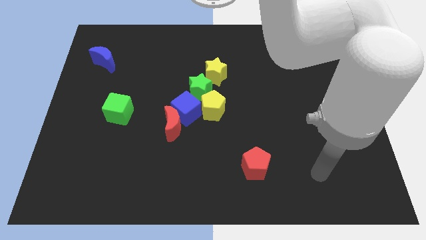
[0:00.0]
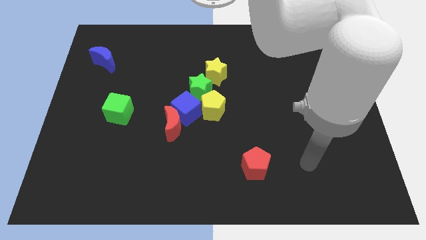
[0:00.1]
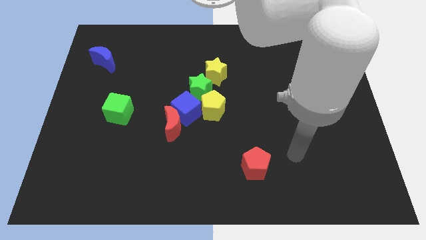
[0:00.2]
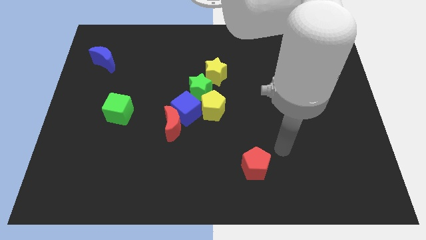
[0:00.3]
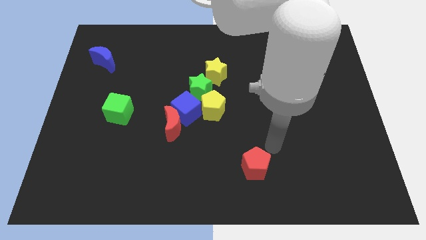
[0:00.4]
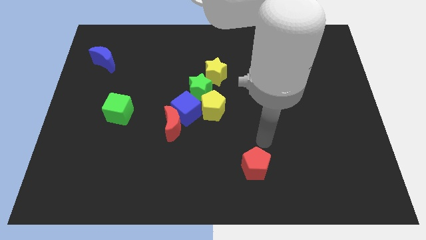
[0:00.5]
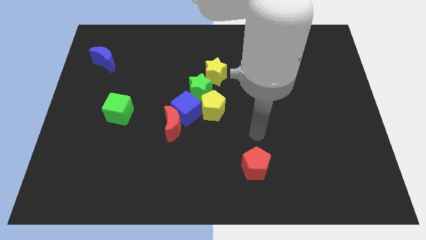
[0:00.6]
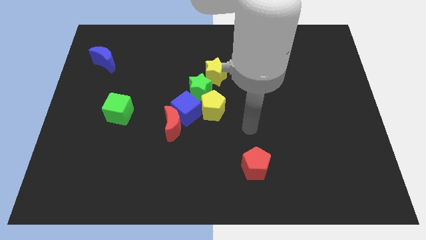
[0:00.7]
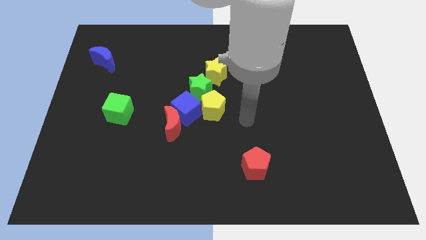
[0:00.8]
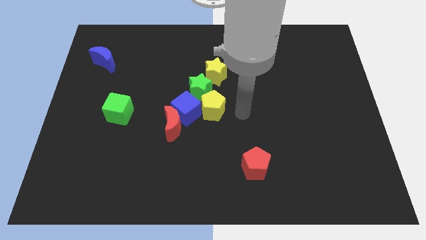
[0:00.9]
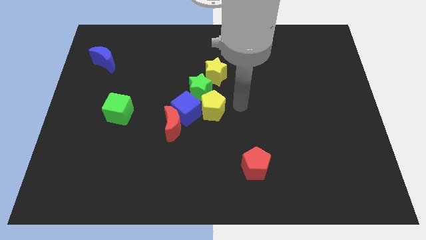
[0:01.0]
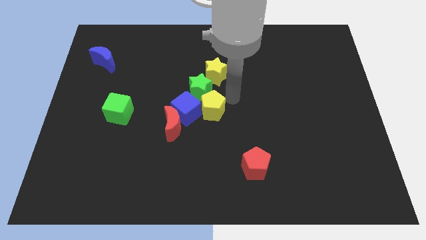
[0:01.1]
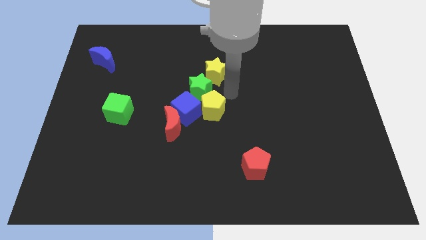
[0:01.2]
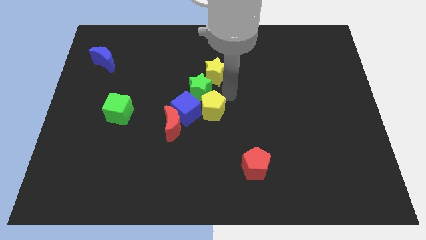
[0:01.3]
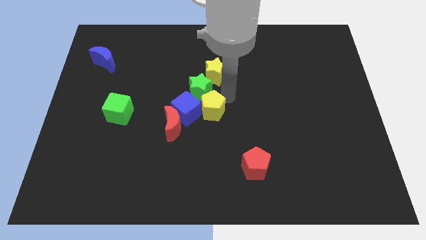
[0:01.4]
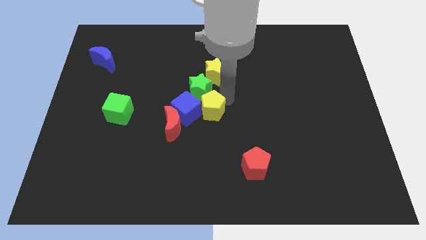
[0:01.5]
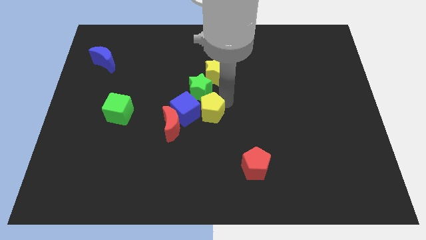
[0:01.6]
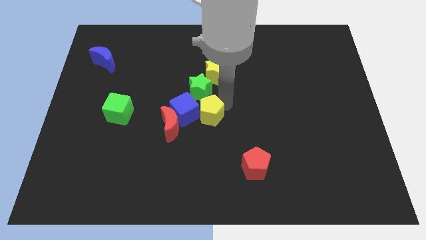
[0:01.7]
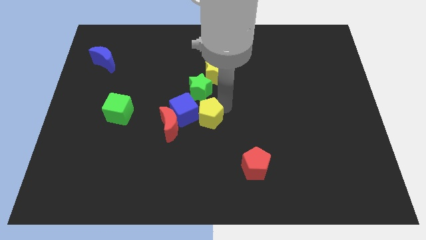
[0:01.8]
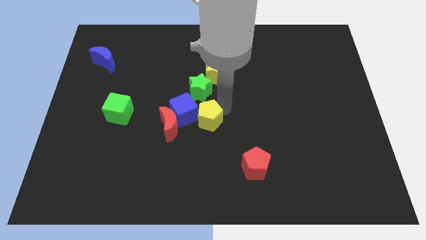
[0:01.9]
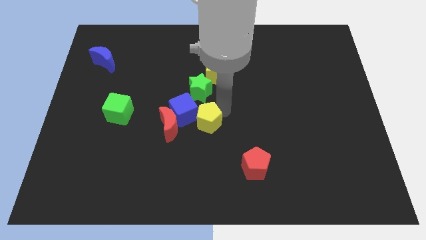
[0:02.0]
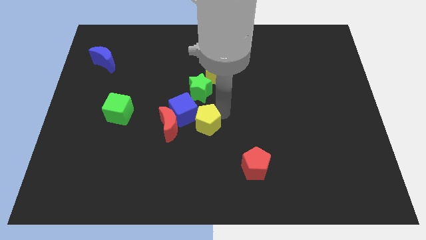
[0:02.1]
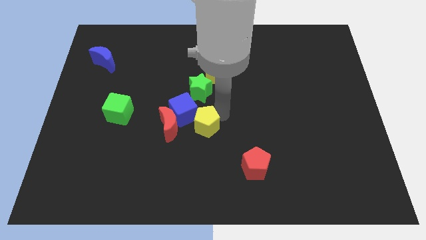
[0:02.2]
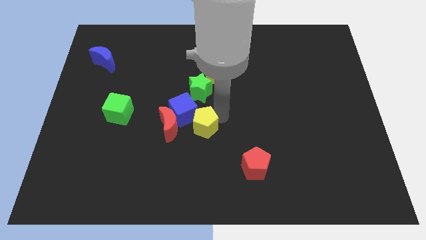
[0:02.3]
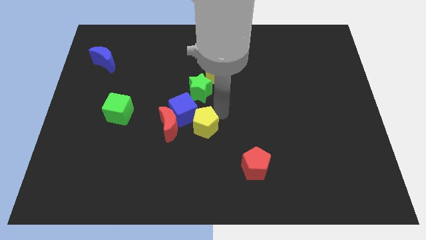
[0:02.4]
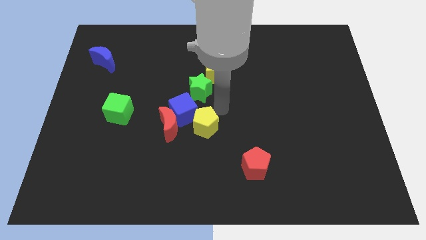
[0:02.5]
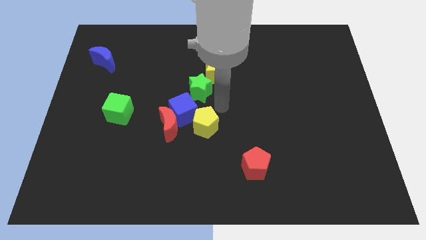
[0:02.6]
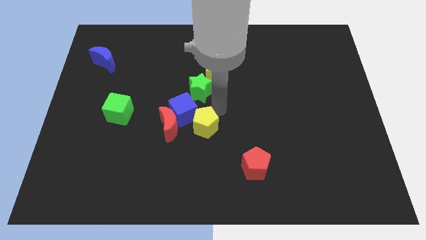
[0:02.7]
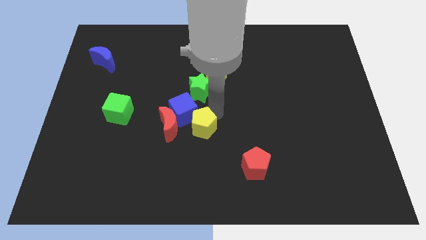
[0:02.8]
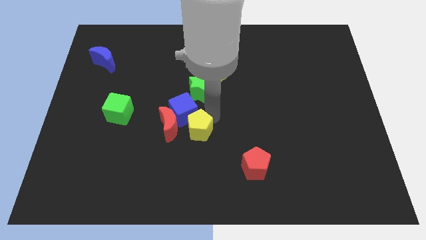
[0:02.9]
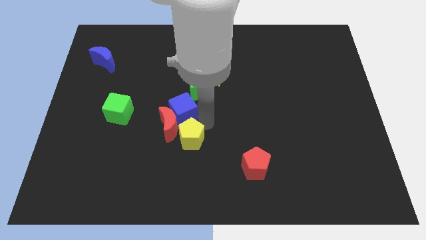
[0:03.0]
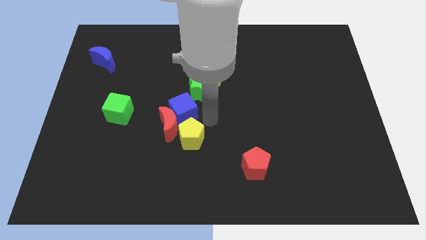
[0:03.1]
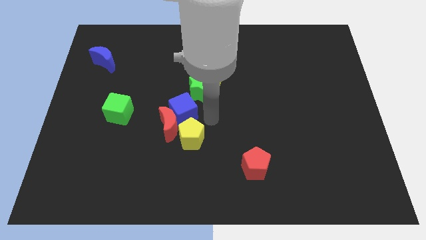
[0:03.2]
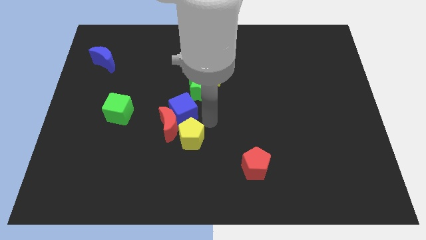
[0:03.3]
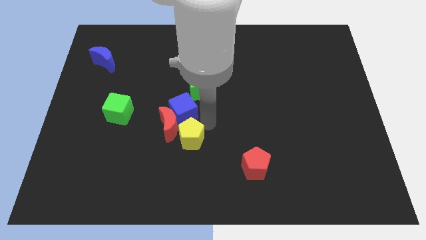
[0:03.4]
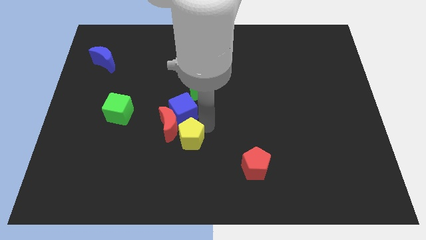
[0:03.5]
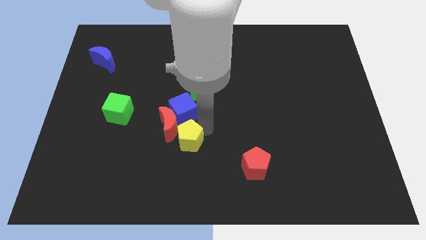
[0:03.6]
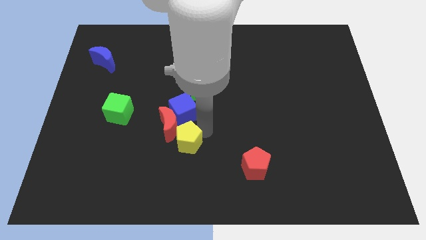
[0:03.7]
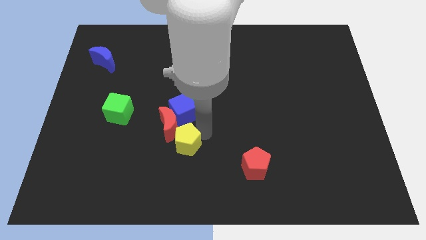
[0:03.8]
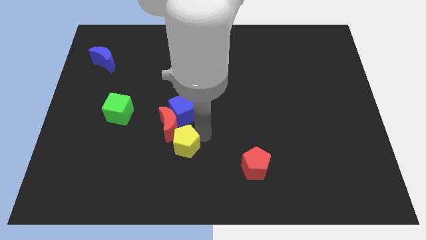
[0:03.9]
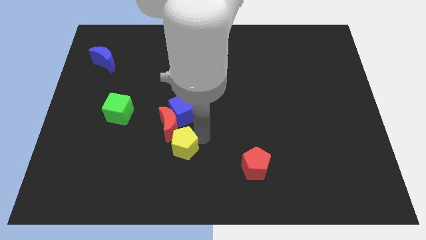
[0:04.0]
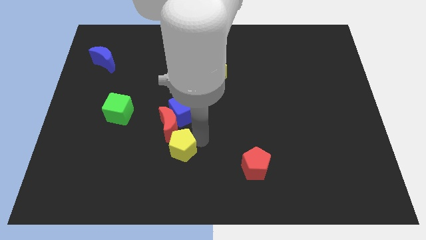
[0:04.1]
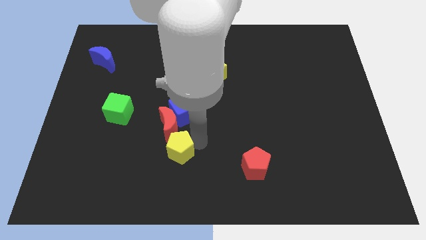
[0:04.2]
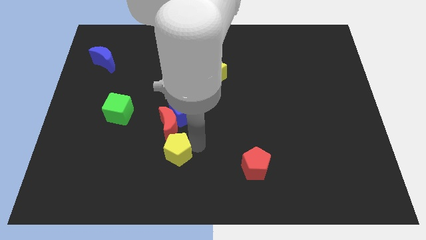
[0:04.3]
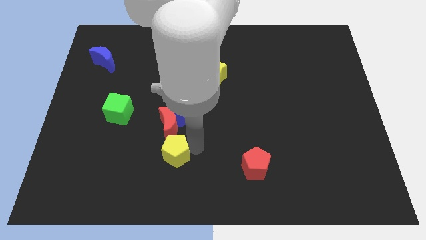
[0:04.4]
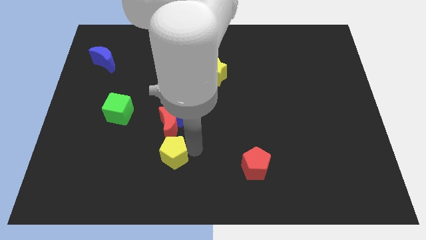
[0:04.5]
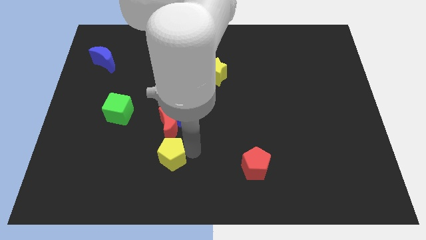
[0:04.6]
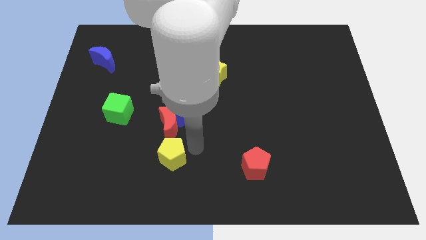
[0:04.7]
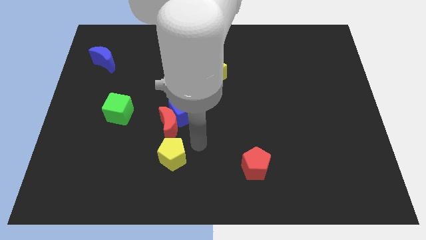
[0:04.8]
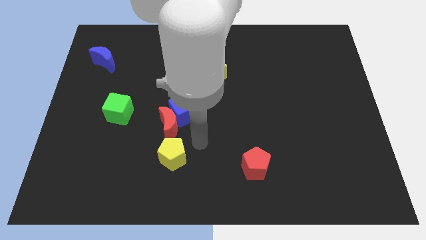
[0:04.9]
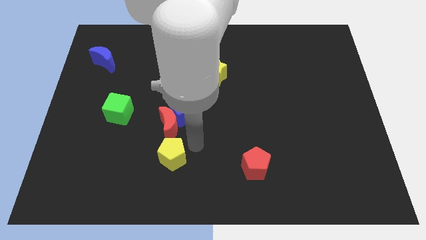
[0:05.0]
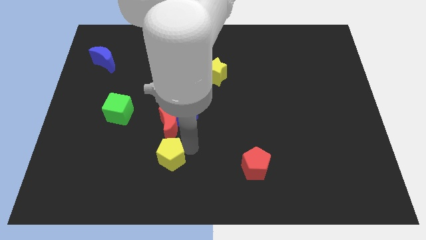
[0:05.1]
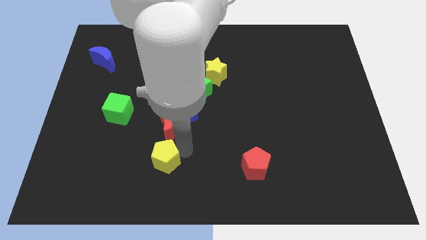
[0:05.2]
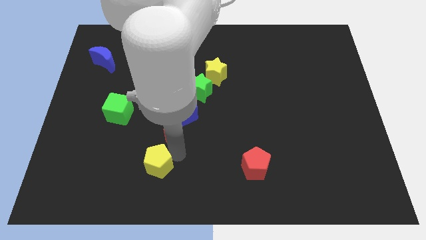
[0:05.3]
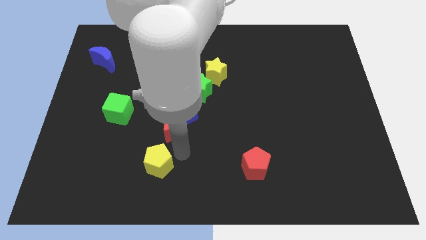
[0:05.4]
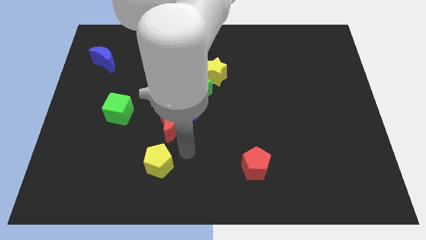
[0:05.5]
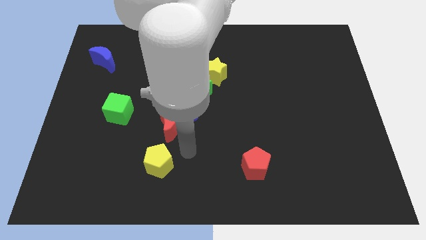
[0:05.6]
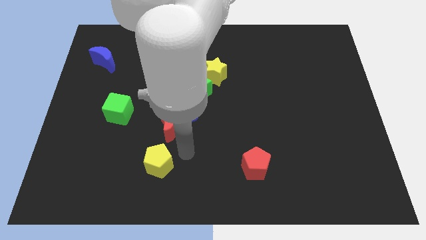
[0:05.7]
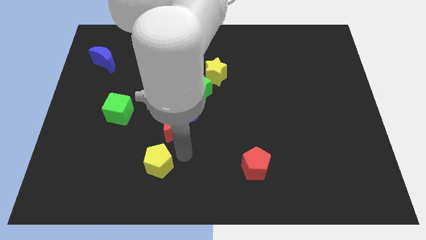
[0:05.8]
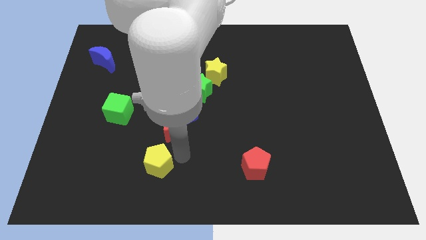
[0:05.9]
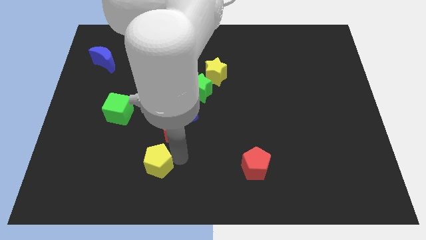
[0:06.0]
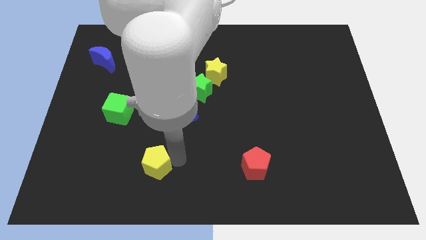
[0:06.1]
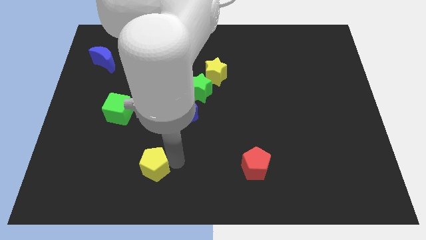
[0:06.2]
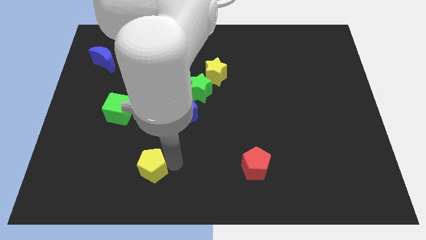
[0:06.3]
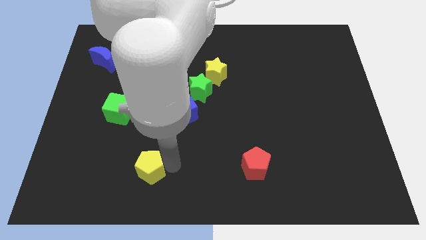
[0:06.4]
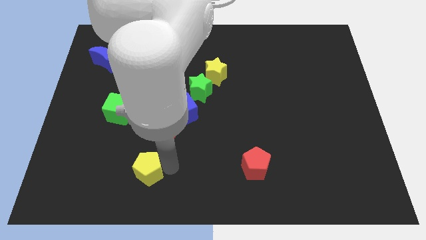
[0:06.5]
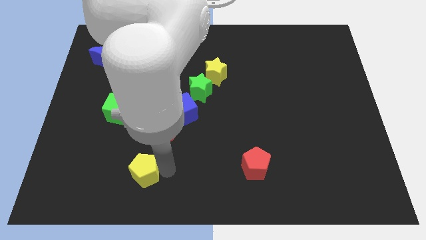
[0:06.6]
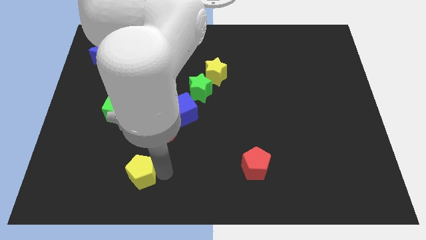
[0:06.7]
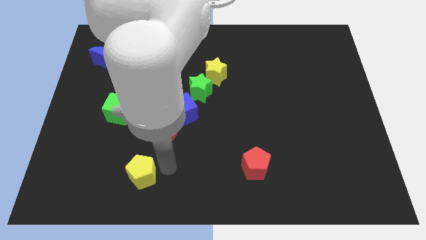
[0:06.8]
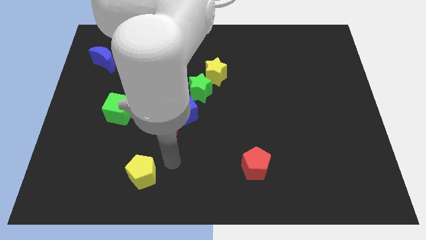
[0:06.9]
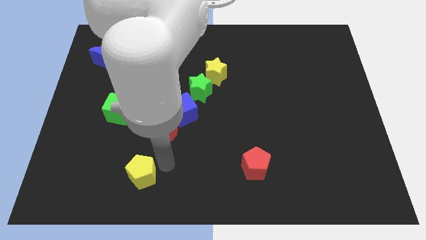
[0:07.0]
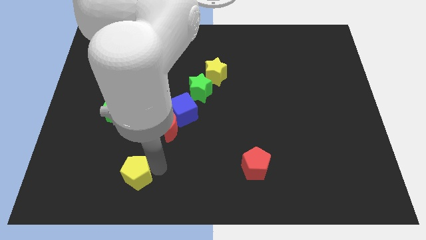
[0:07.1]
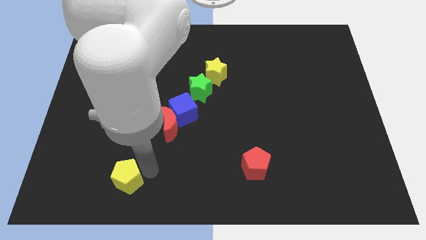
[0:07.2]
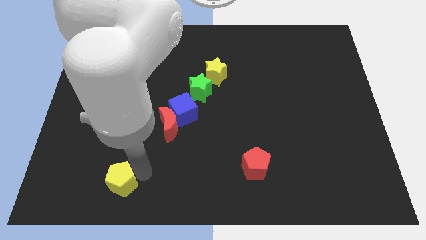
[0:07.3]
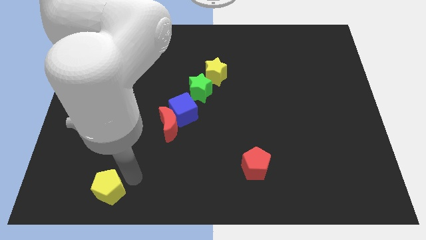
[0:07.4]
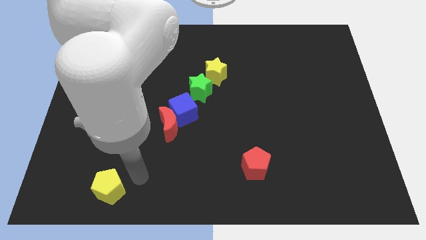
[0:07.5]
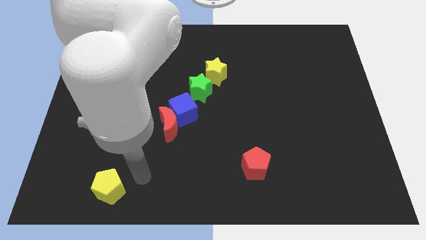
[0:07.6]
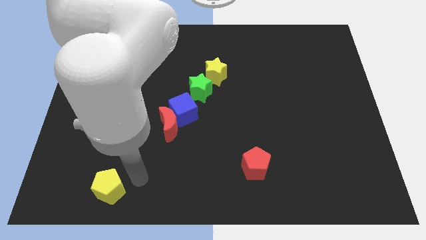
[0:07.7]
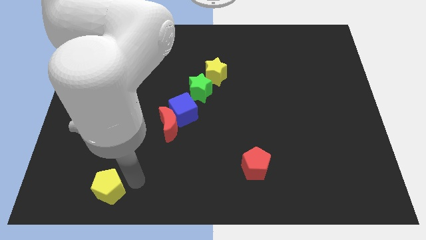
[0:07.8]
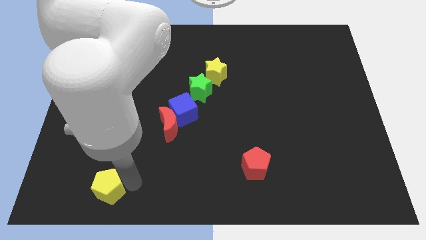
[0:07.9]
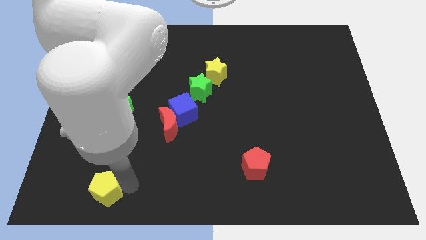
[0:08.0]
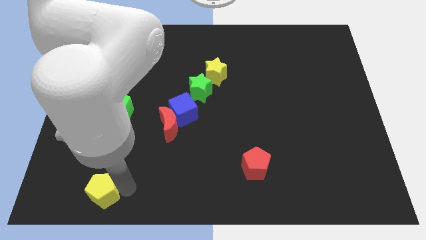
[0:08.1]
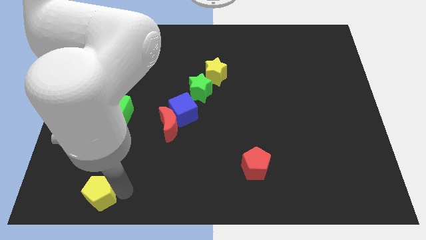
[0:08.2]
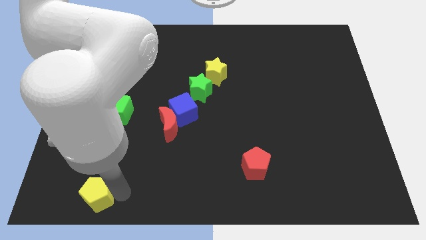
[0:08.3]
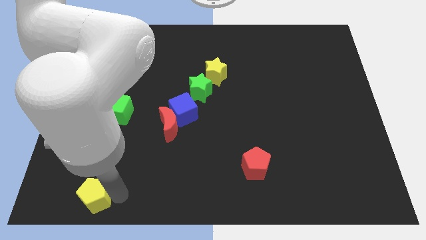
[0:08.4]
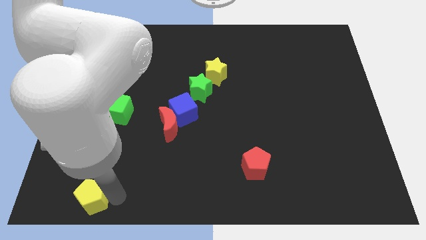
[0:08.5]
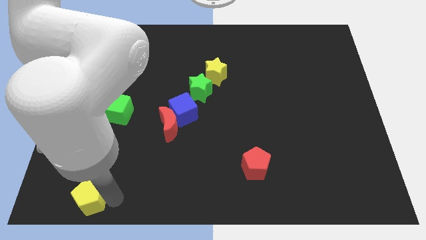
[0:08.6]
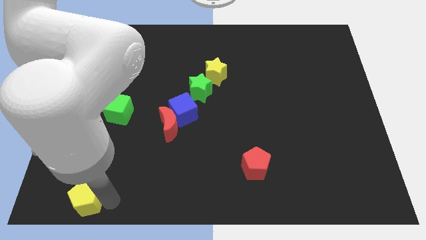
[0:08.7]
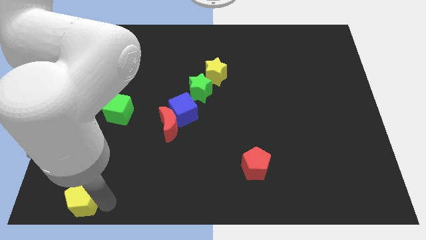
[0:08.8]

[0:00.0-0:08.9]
move the yellow pentagon to the lower left corner
